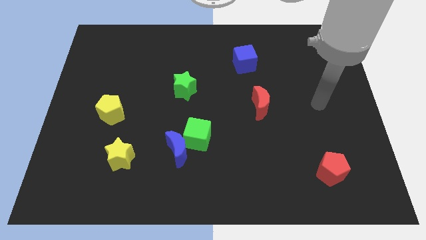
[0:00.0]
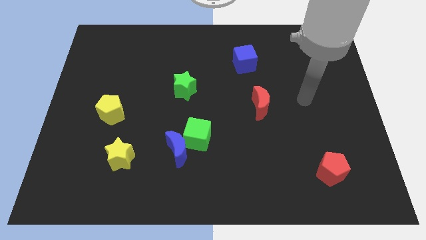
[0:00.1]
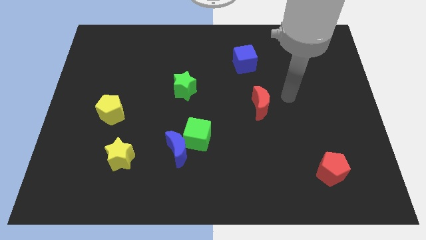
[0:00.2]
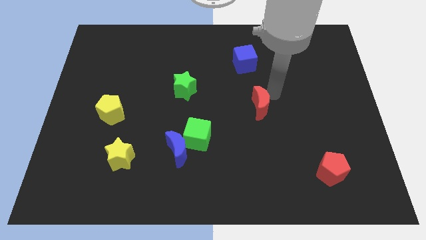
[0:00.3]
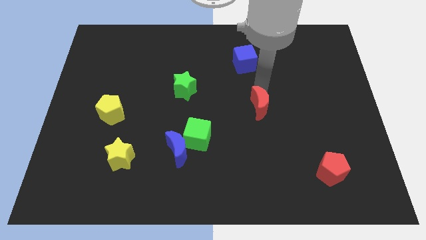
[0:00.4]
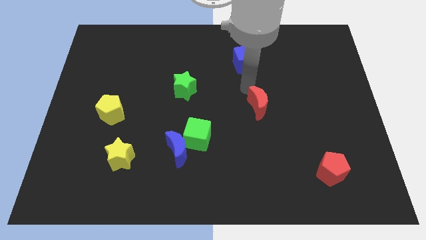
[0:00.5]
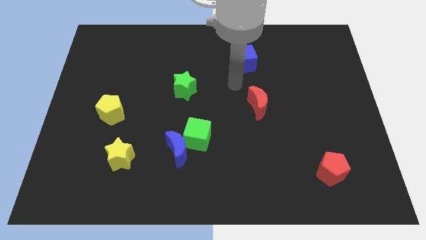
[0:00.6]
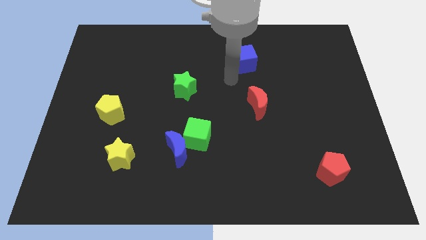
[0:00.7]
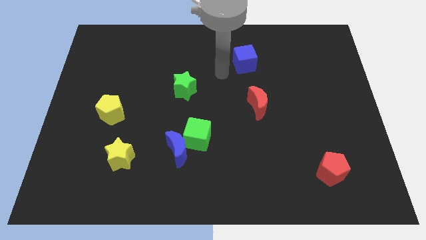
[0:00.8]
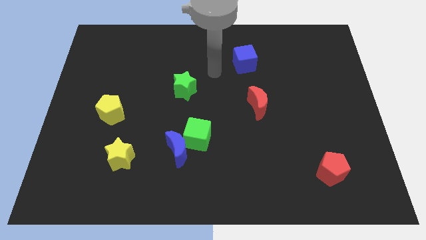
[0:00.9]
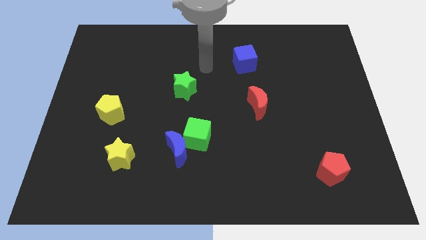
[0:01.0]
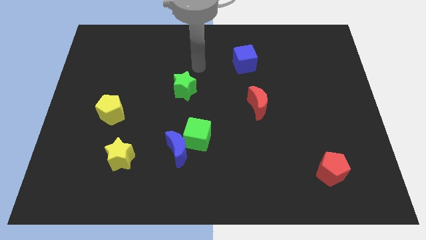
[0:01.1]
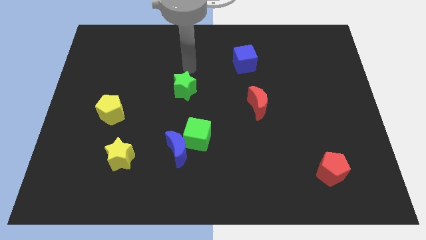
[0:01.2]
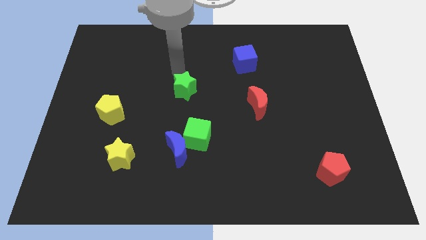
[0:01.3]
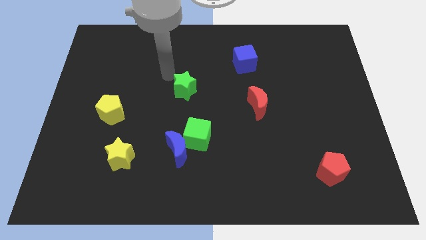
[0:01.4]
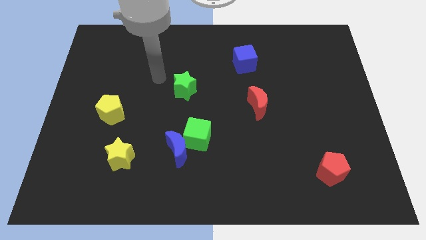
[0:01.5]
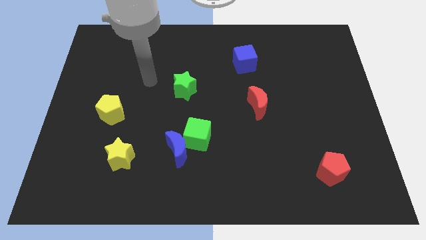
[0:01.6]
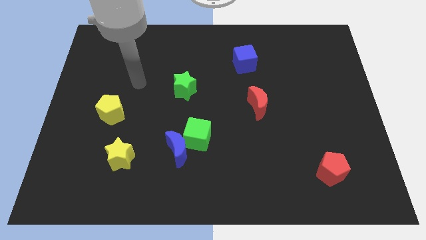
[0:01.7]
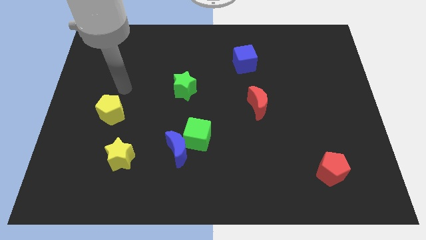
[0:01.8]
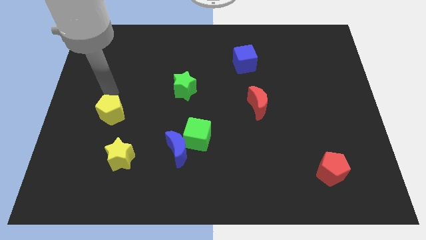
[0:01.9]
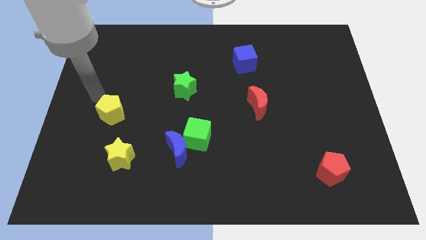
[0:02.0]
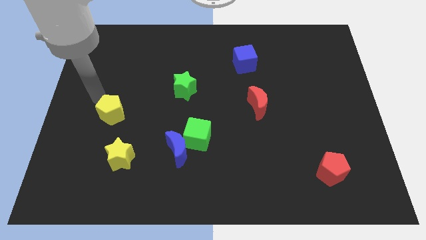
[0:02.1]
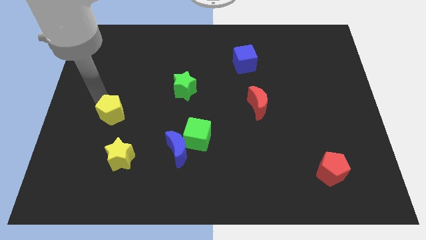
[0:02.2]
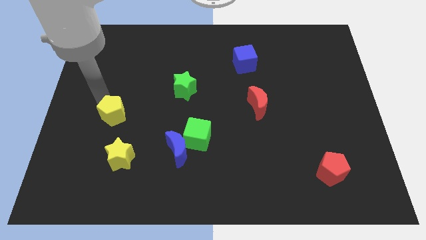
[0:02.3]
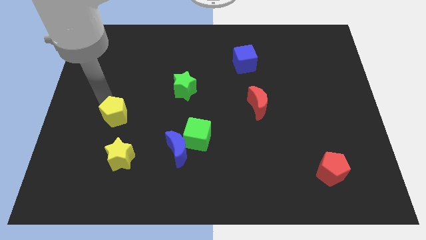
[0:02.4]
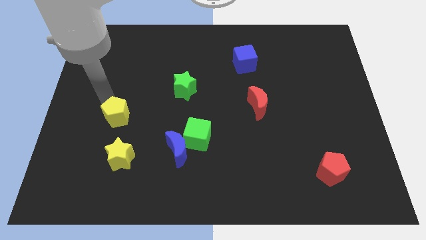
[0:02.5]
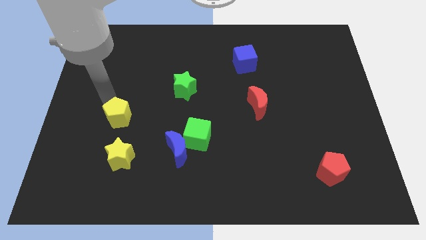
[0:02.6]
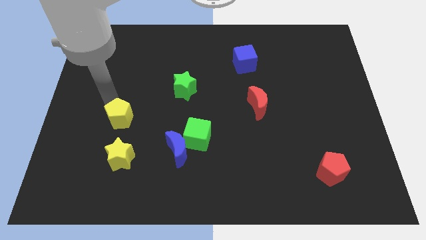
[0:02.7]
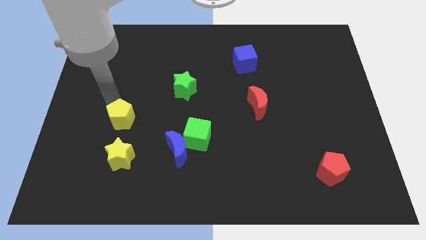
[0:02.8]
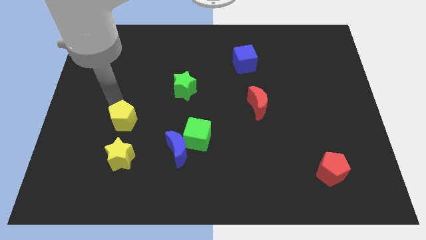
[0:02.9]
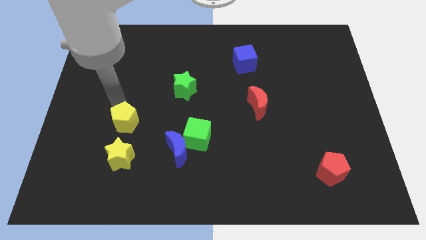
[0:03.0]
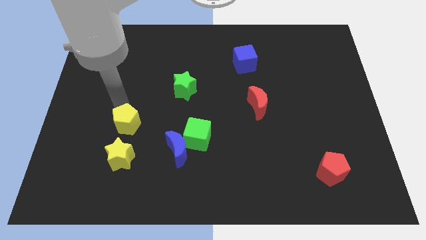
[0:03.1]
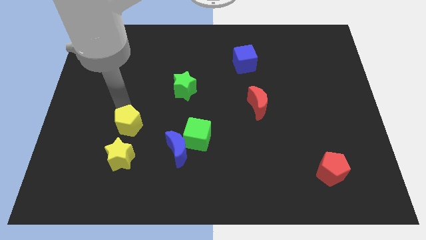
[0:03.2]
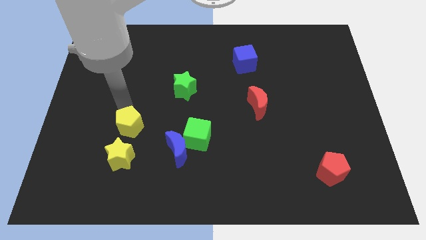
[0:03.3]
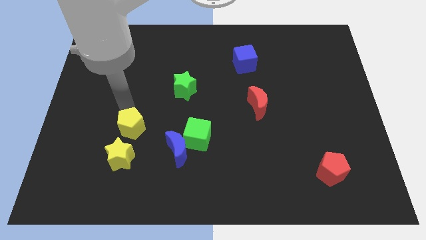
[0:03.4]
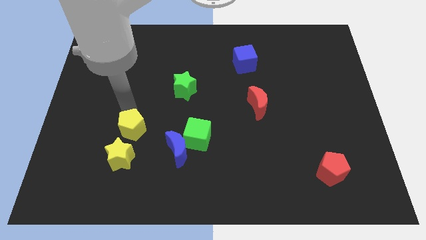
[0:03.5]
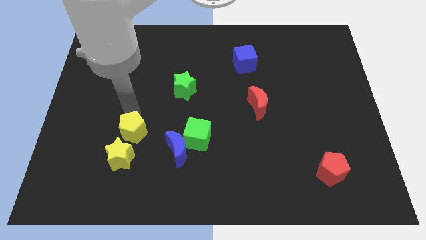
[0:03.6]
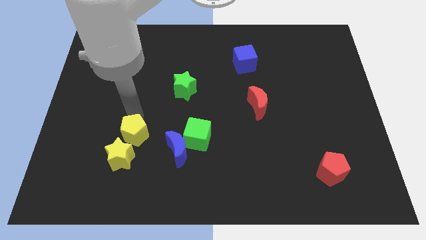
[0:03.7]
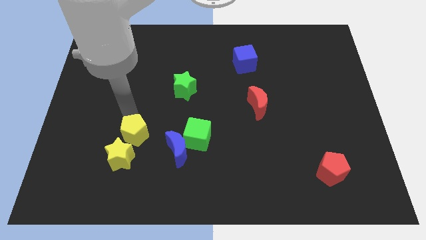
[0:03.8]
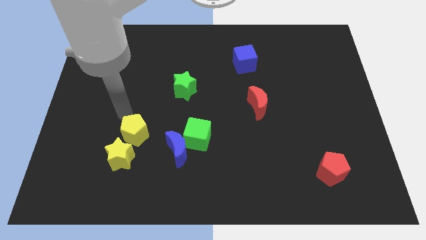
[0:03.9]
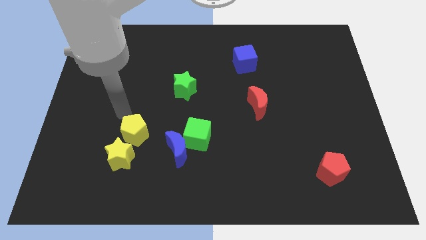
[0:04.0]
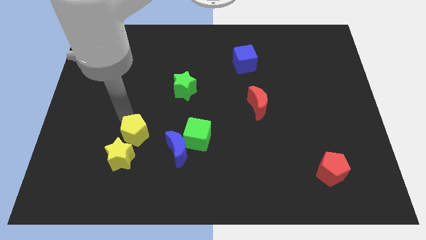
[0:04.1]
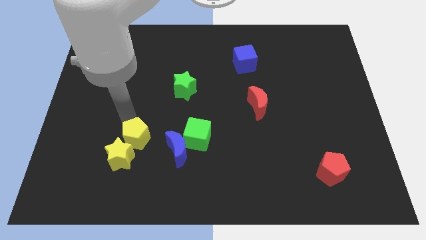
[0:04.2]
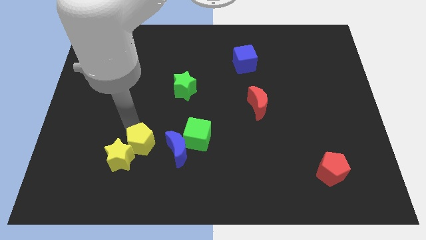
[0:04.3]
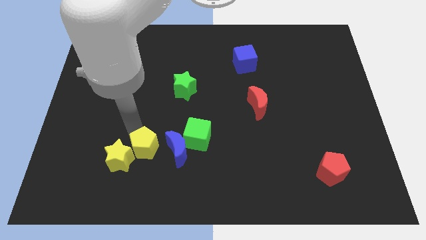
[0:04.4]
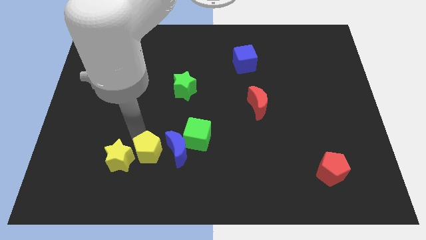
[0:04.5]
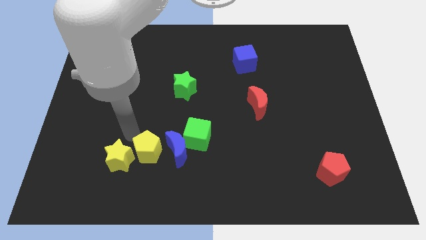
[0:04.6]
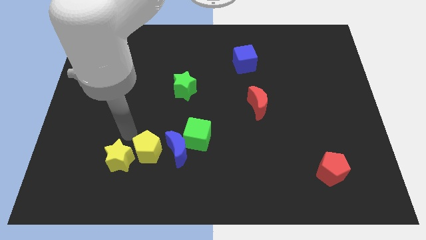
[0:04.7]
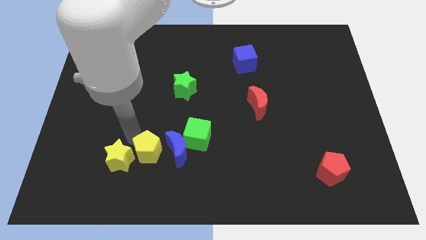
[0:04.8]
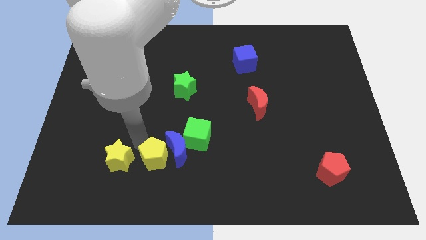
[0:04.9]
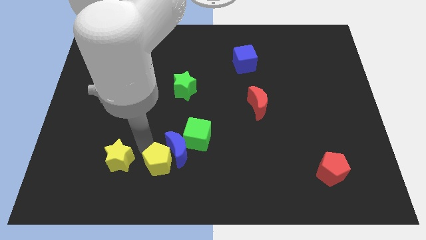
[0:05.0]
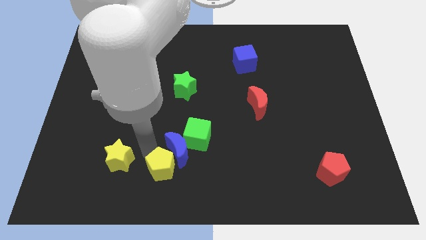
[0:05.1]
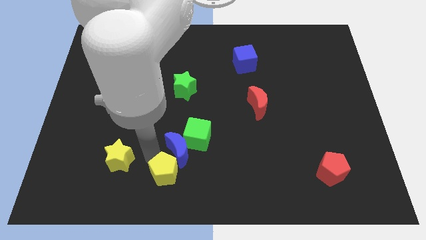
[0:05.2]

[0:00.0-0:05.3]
put the yellow pentagon to the bottom side

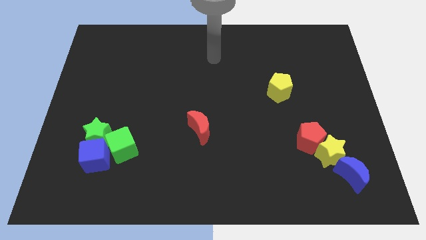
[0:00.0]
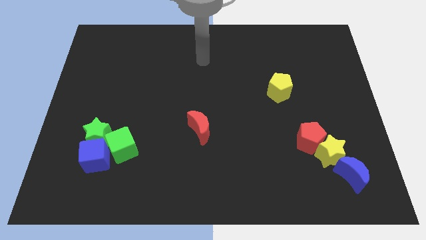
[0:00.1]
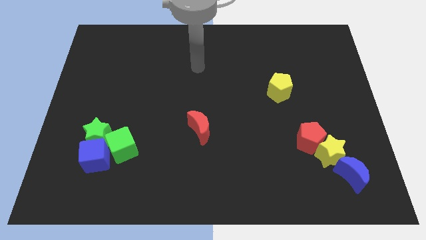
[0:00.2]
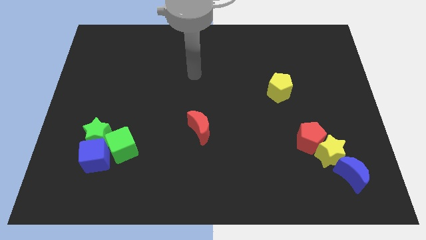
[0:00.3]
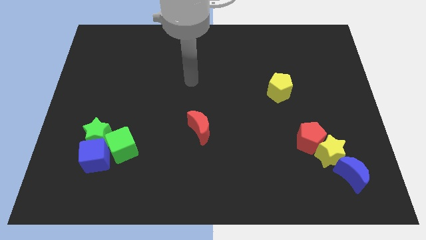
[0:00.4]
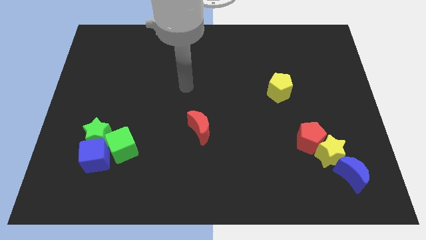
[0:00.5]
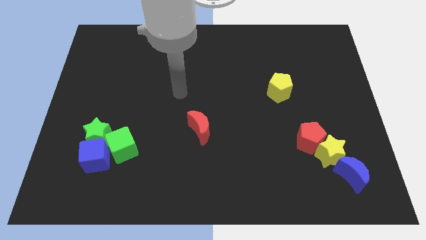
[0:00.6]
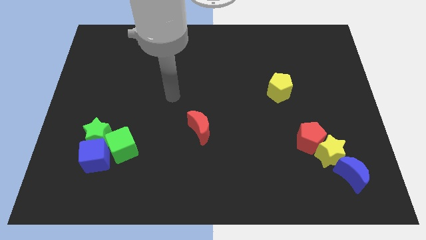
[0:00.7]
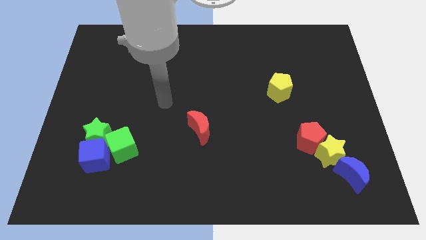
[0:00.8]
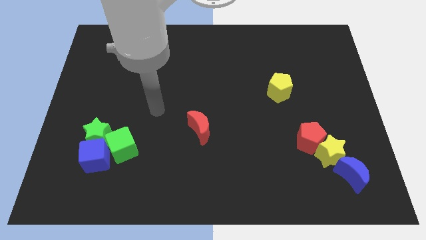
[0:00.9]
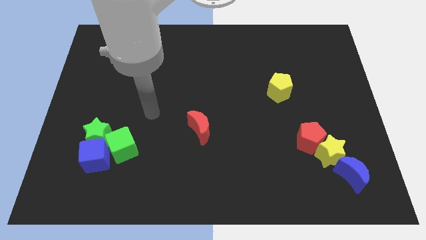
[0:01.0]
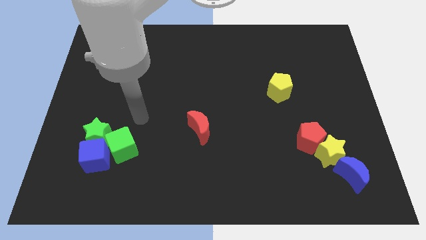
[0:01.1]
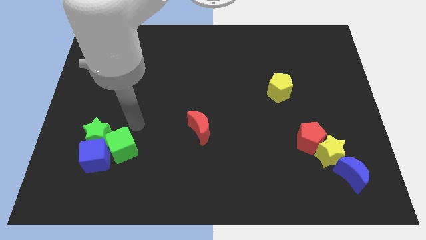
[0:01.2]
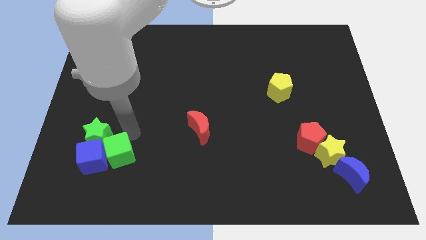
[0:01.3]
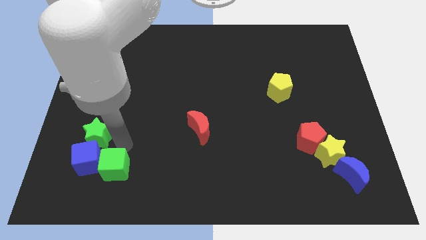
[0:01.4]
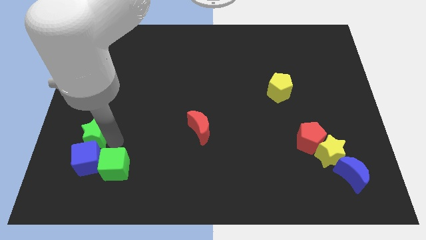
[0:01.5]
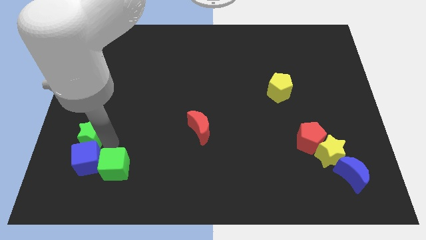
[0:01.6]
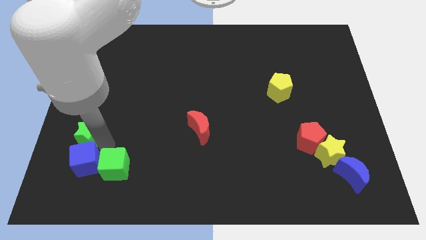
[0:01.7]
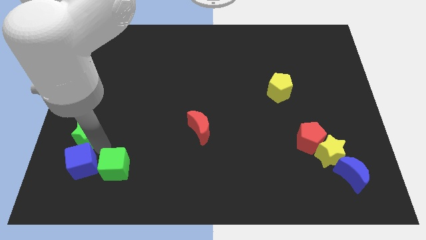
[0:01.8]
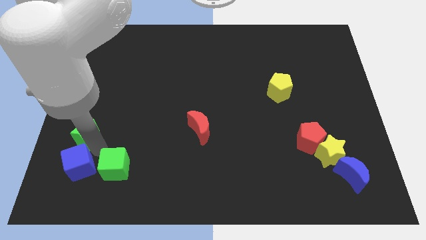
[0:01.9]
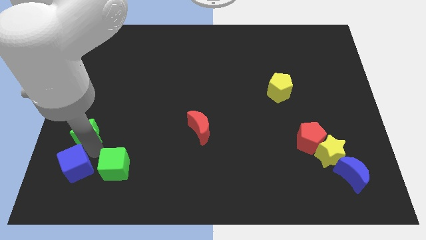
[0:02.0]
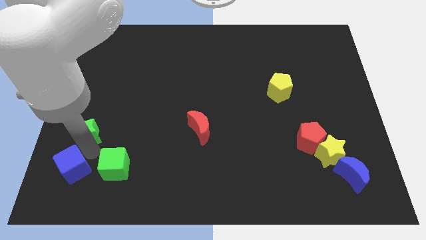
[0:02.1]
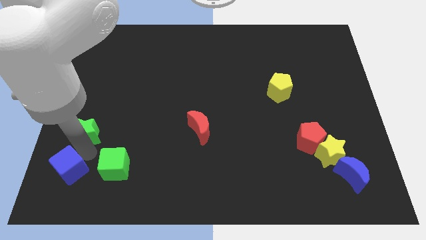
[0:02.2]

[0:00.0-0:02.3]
move the blue cube to the bottom left corner
